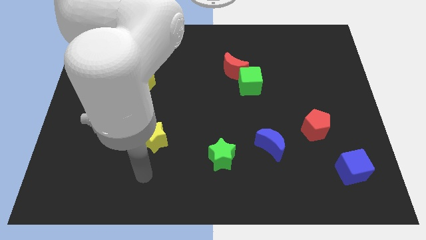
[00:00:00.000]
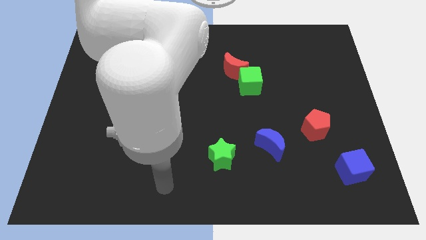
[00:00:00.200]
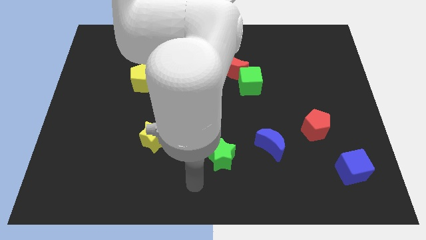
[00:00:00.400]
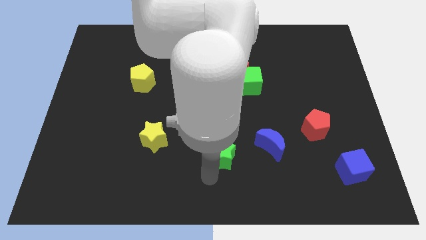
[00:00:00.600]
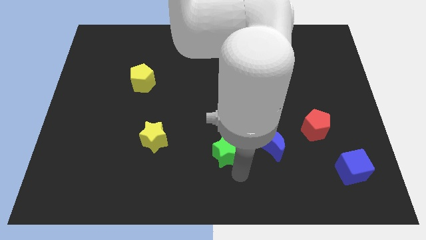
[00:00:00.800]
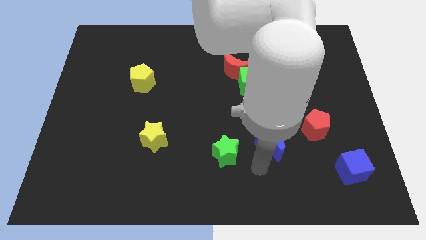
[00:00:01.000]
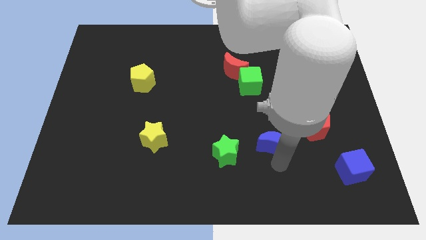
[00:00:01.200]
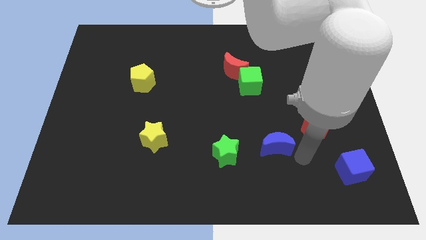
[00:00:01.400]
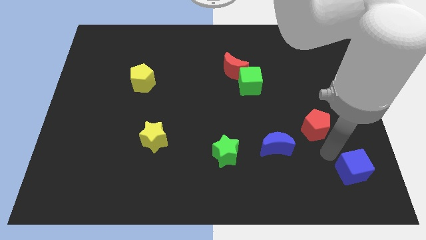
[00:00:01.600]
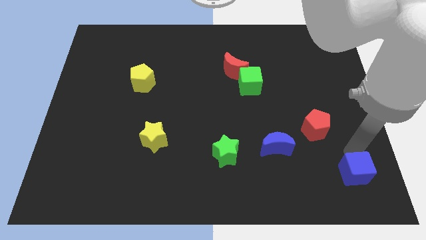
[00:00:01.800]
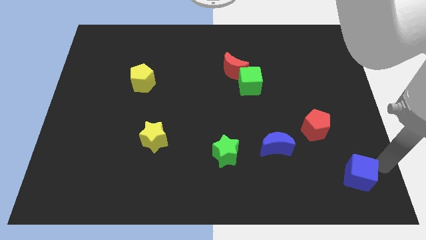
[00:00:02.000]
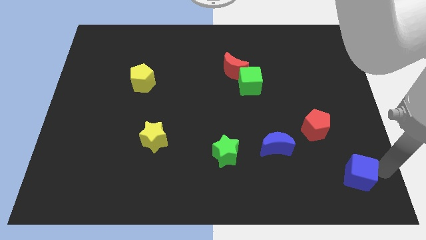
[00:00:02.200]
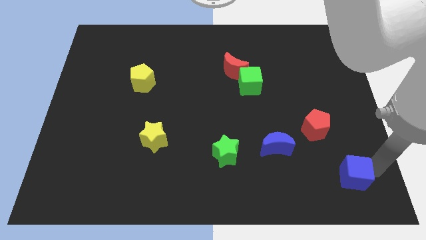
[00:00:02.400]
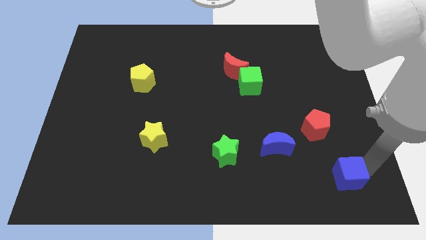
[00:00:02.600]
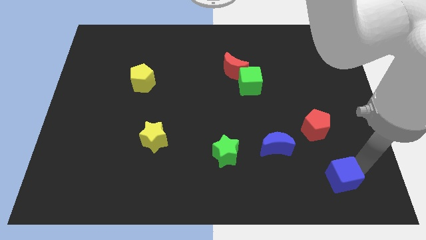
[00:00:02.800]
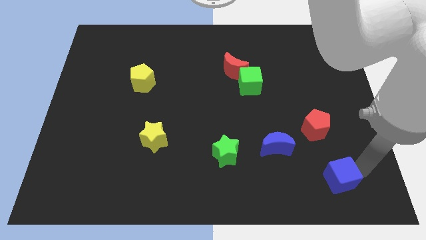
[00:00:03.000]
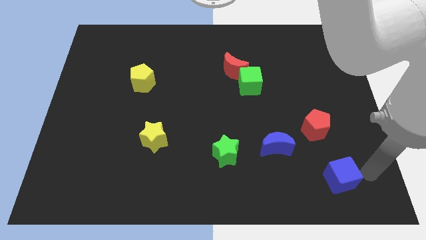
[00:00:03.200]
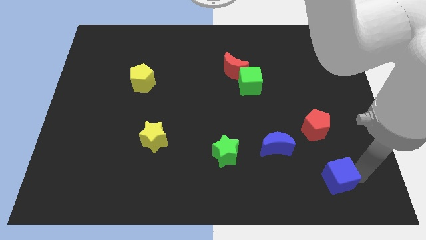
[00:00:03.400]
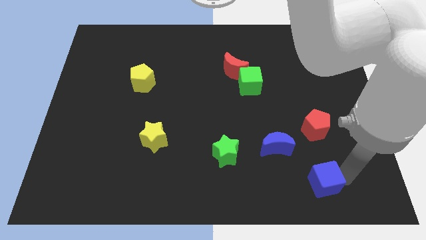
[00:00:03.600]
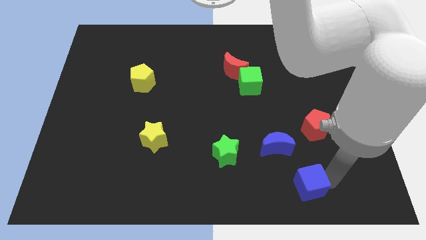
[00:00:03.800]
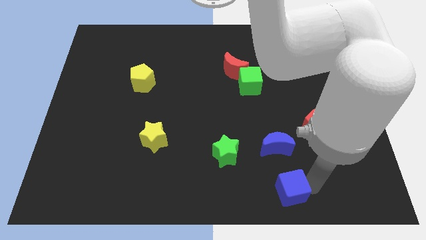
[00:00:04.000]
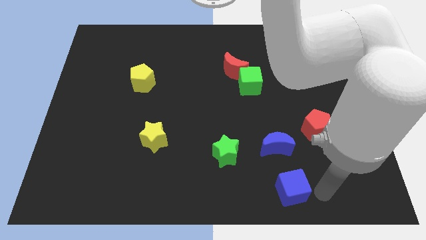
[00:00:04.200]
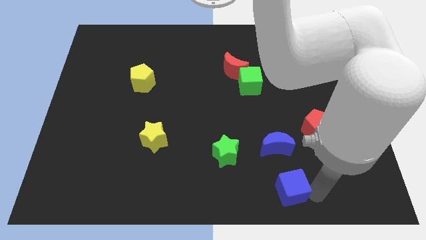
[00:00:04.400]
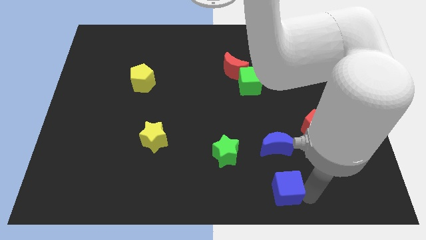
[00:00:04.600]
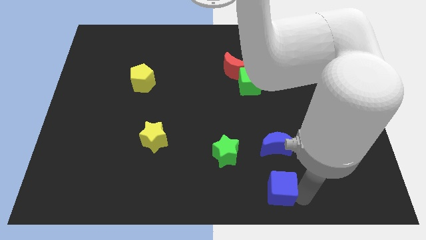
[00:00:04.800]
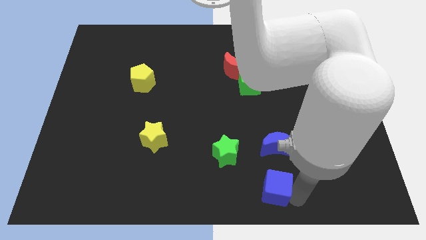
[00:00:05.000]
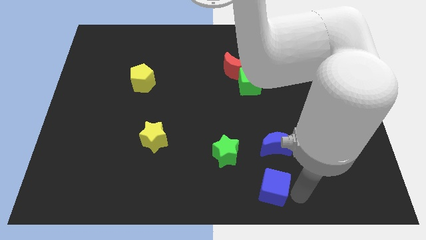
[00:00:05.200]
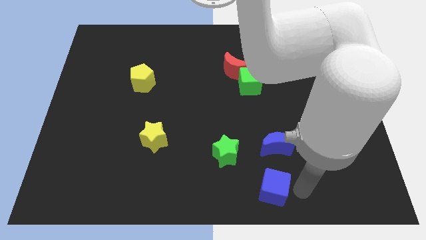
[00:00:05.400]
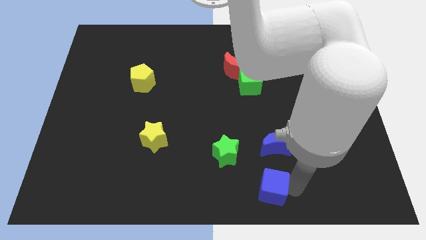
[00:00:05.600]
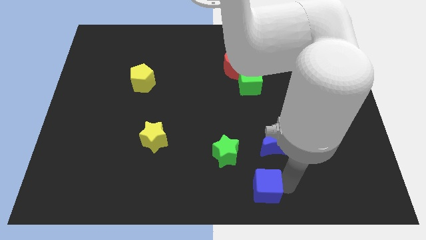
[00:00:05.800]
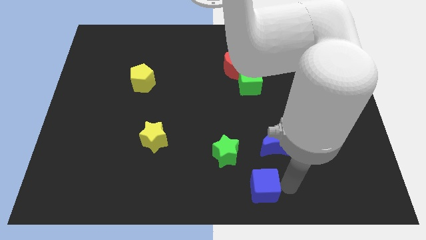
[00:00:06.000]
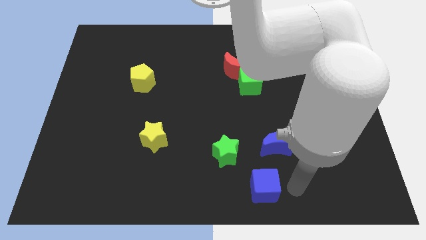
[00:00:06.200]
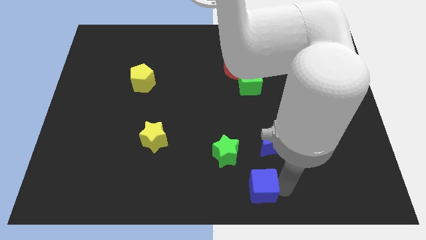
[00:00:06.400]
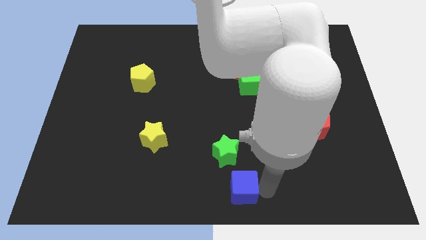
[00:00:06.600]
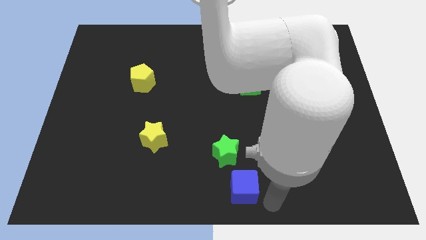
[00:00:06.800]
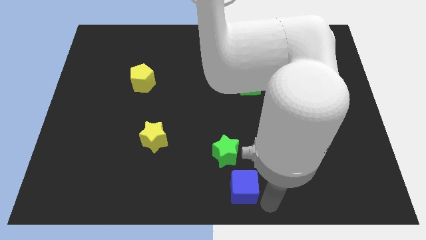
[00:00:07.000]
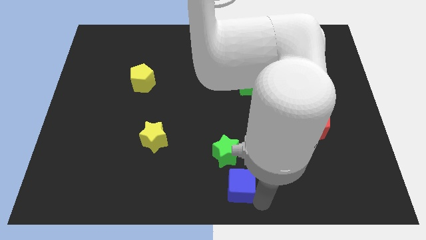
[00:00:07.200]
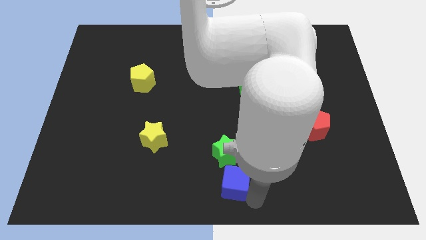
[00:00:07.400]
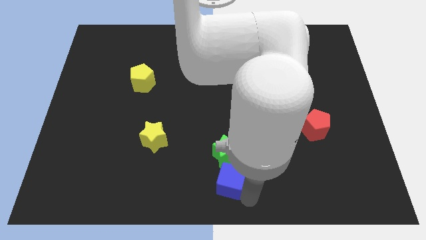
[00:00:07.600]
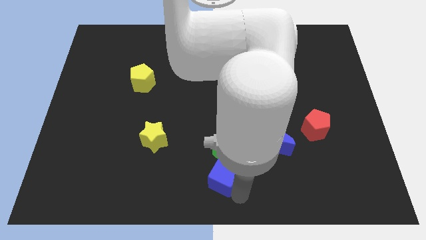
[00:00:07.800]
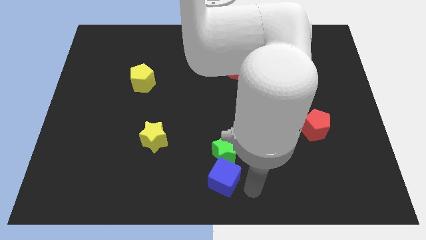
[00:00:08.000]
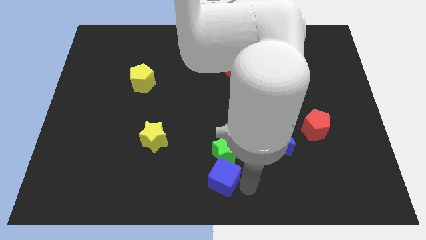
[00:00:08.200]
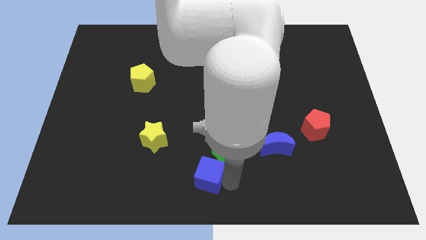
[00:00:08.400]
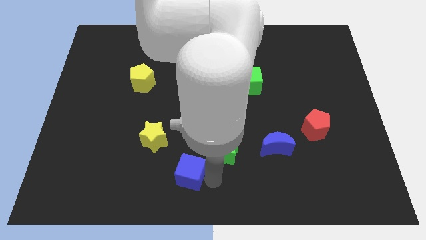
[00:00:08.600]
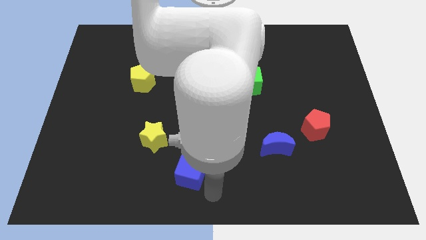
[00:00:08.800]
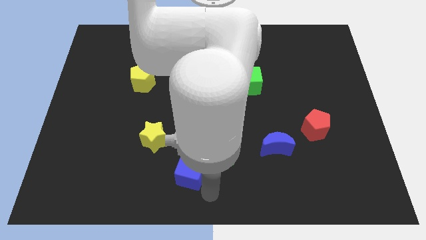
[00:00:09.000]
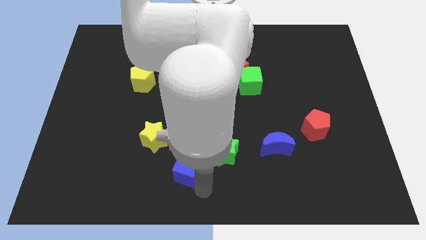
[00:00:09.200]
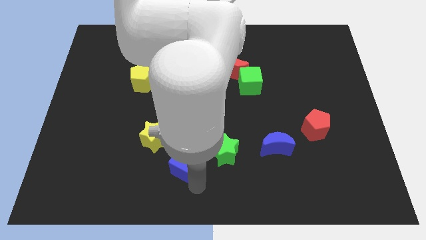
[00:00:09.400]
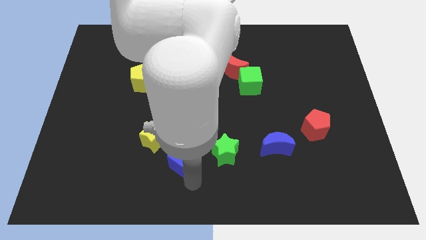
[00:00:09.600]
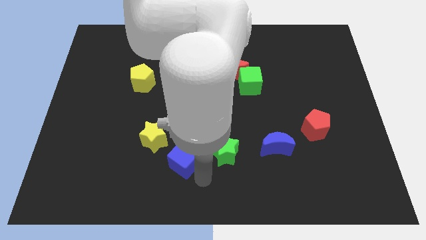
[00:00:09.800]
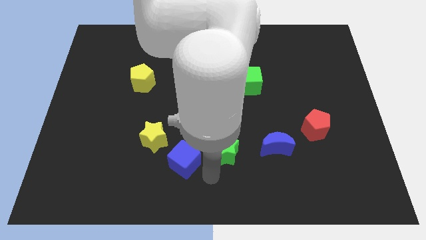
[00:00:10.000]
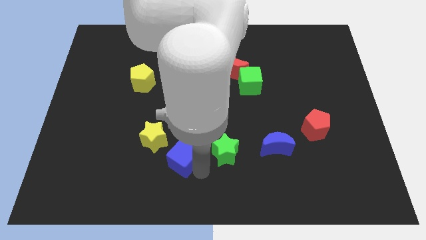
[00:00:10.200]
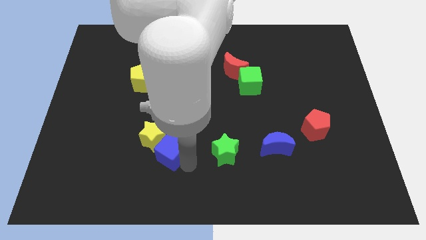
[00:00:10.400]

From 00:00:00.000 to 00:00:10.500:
put the blue cube to the yellow star

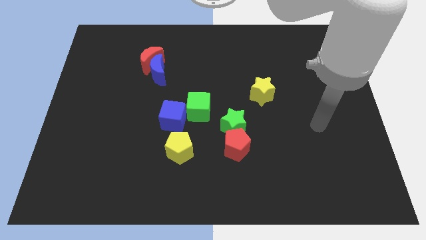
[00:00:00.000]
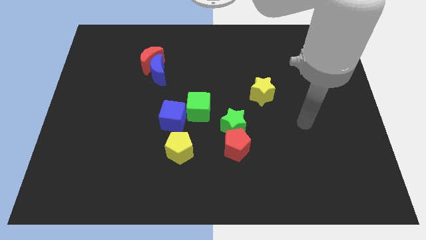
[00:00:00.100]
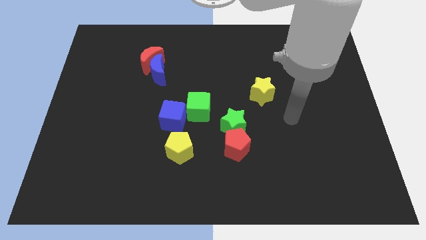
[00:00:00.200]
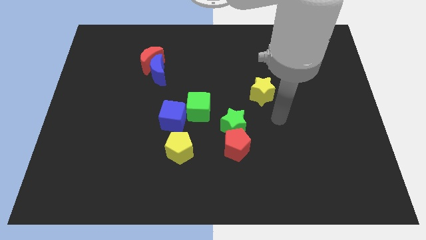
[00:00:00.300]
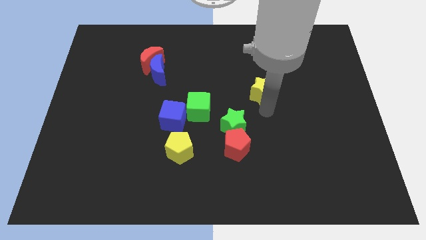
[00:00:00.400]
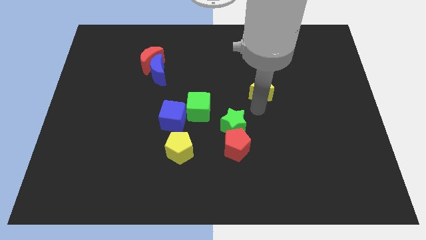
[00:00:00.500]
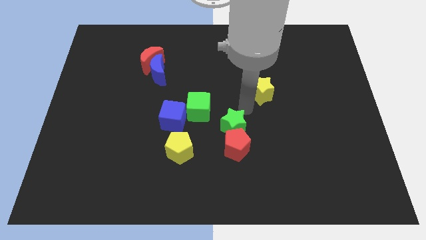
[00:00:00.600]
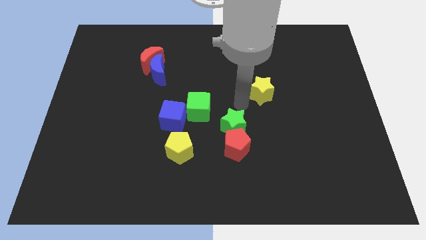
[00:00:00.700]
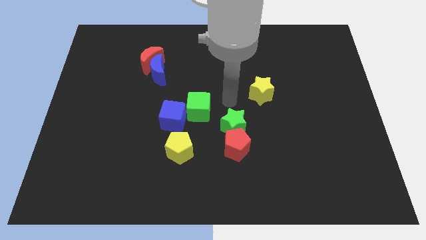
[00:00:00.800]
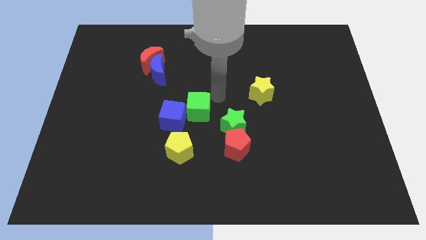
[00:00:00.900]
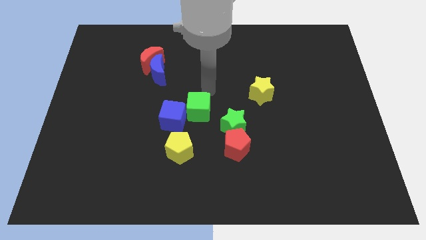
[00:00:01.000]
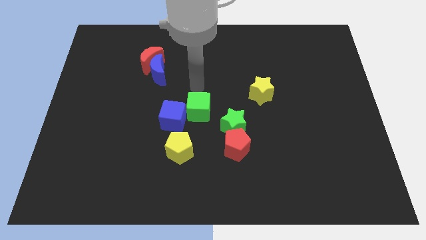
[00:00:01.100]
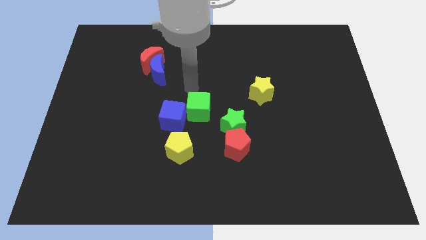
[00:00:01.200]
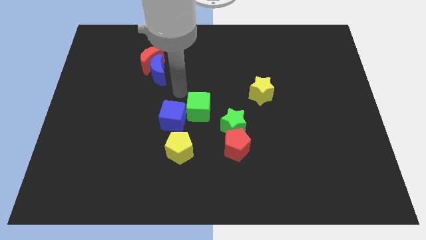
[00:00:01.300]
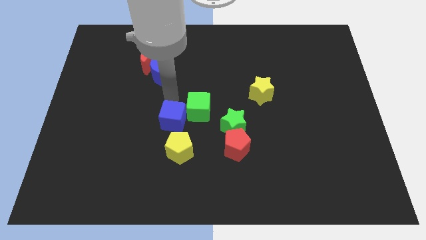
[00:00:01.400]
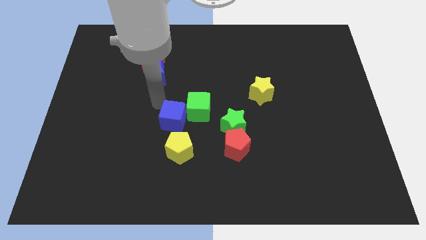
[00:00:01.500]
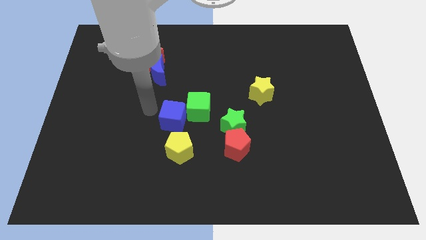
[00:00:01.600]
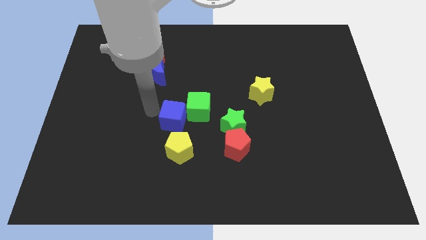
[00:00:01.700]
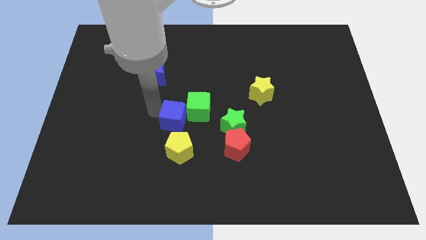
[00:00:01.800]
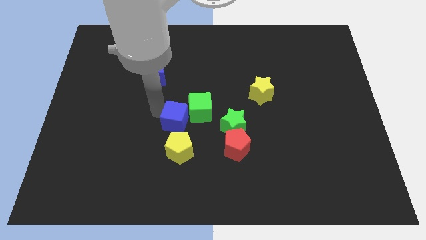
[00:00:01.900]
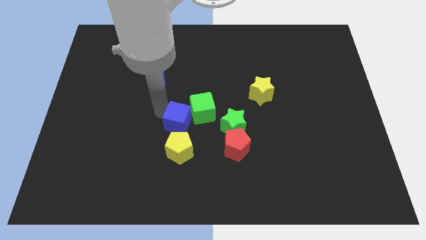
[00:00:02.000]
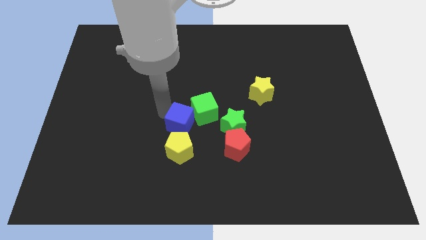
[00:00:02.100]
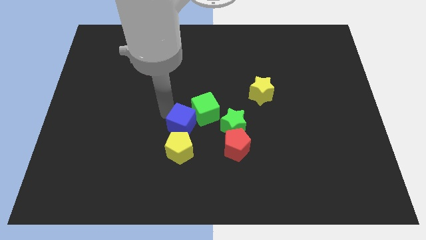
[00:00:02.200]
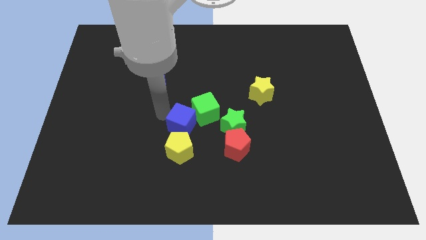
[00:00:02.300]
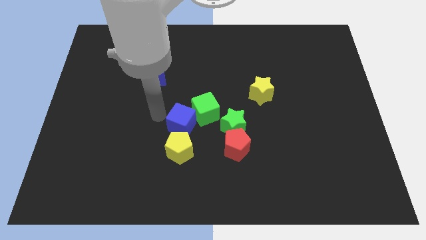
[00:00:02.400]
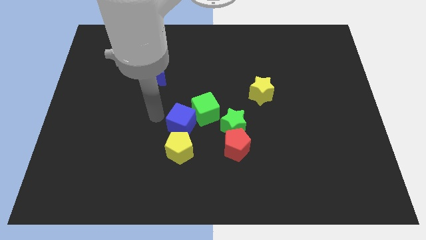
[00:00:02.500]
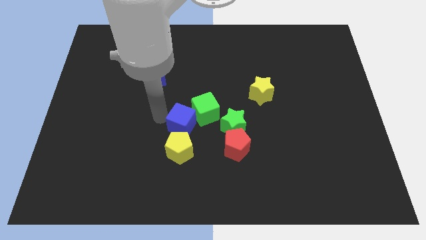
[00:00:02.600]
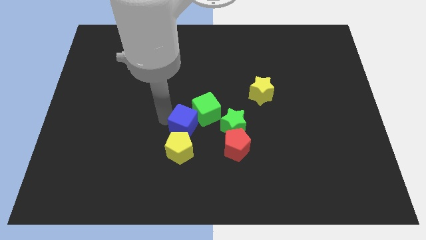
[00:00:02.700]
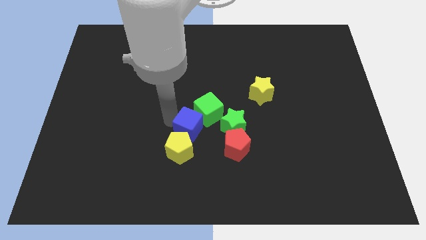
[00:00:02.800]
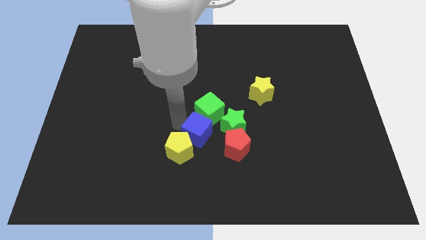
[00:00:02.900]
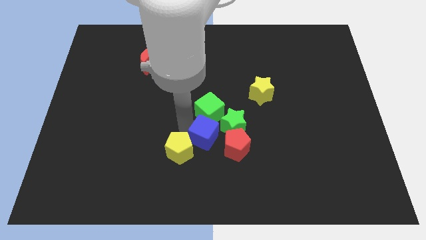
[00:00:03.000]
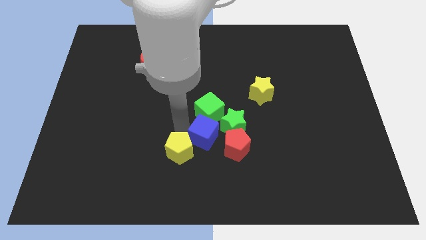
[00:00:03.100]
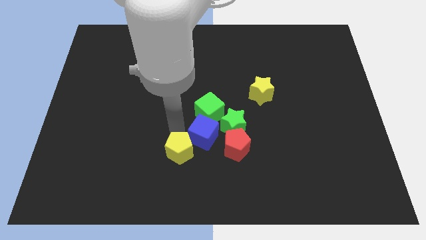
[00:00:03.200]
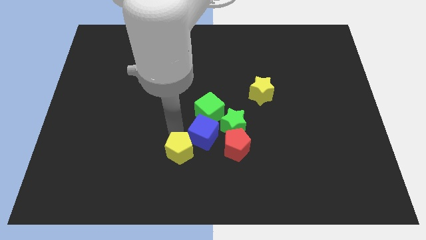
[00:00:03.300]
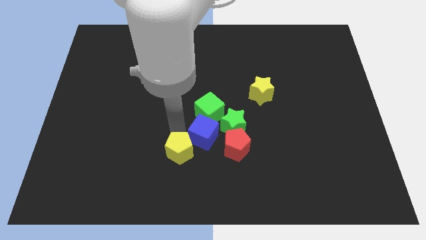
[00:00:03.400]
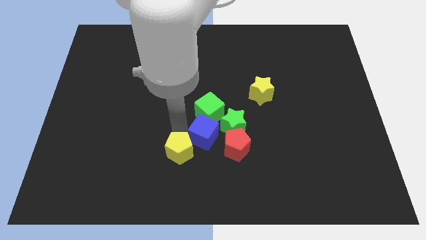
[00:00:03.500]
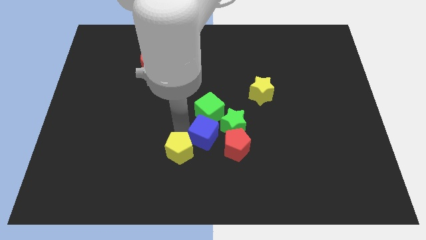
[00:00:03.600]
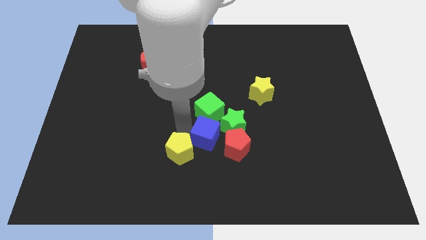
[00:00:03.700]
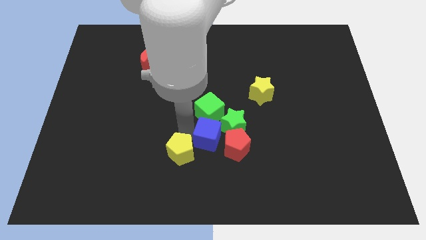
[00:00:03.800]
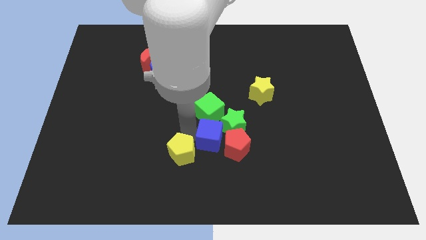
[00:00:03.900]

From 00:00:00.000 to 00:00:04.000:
push the blue cube next to the red pentagon
